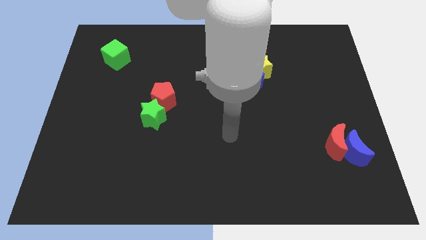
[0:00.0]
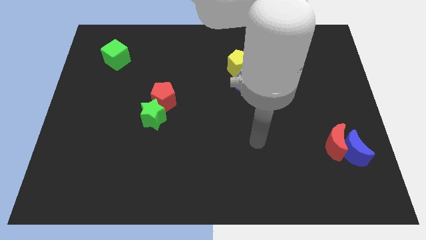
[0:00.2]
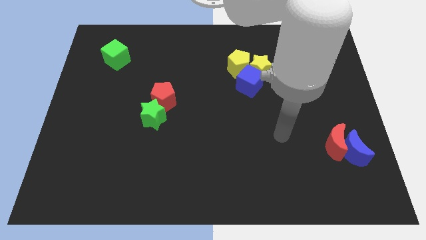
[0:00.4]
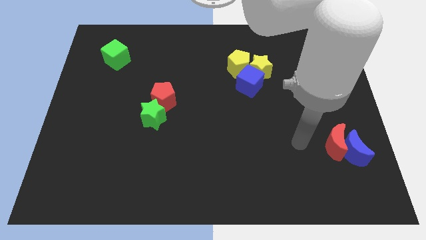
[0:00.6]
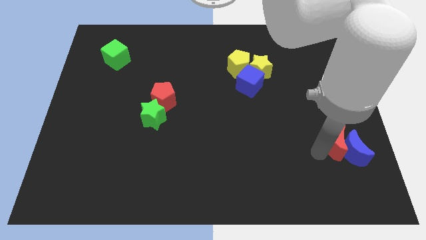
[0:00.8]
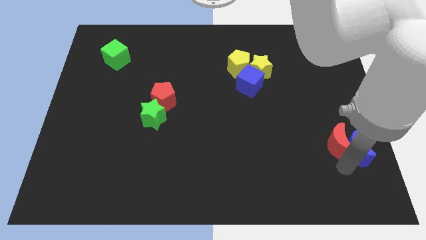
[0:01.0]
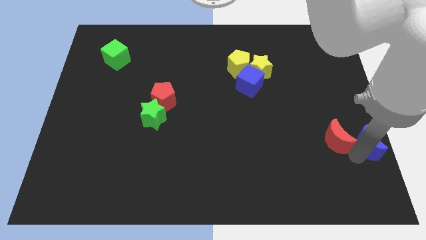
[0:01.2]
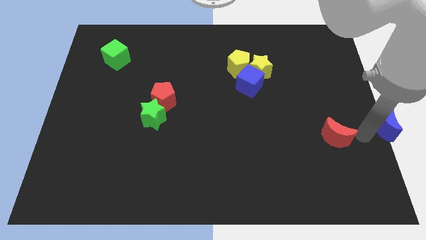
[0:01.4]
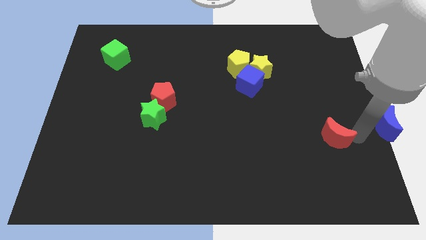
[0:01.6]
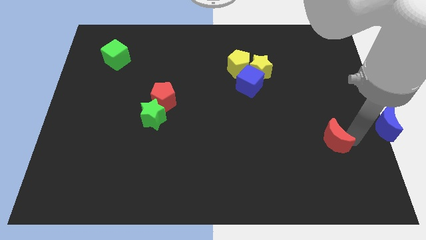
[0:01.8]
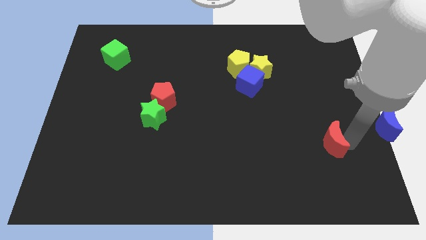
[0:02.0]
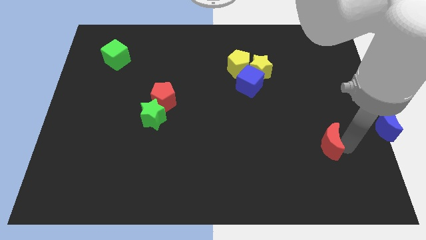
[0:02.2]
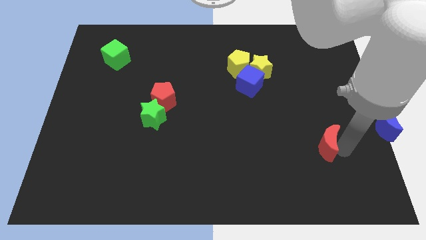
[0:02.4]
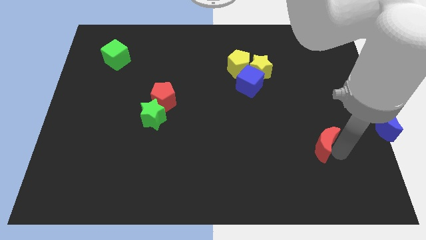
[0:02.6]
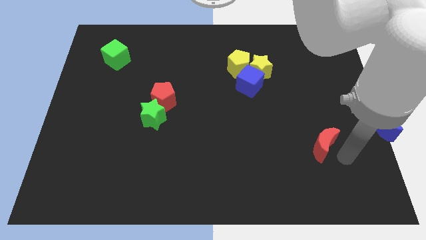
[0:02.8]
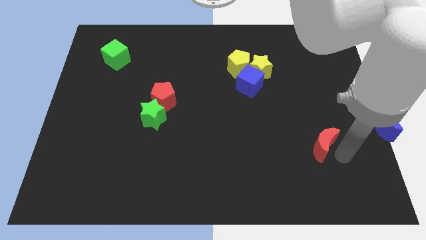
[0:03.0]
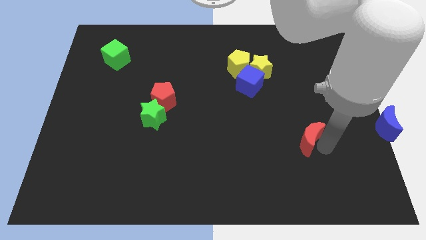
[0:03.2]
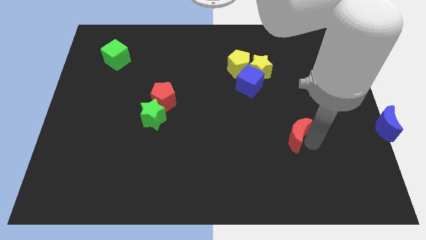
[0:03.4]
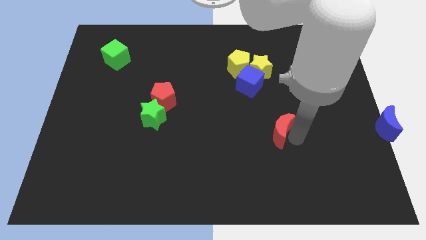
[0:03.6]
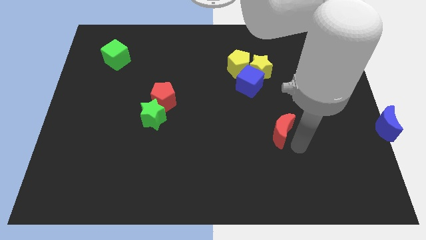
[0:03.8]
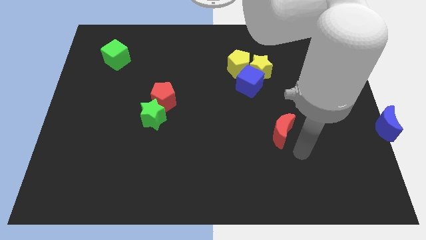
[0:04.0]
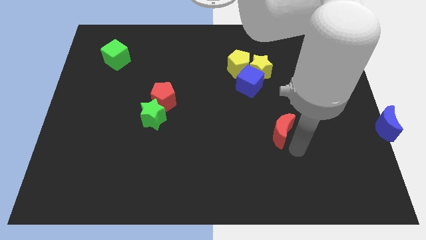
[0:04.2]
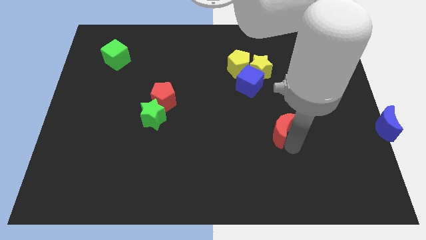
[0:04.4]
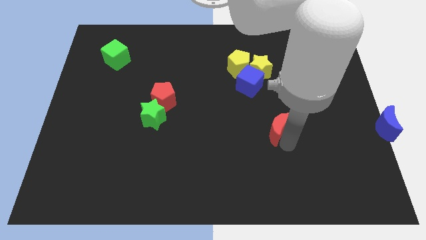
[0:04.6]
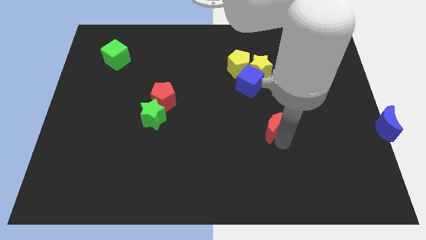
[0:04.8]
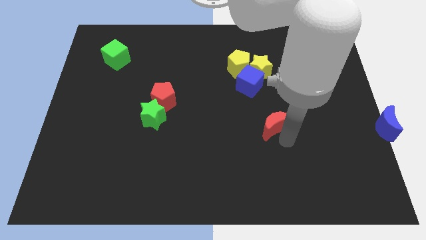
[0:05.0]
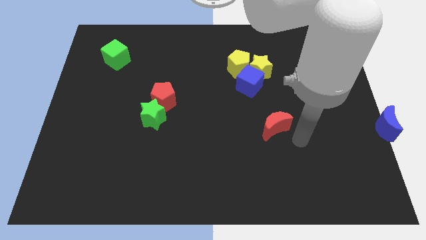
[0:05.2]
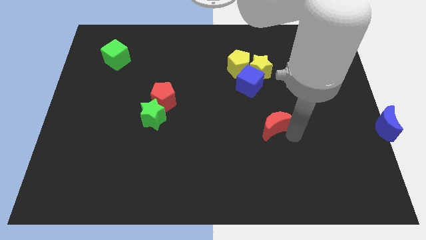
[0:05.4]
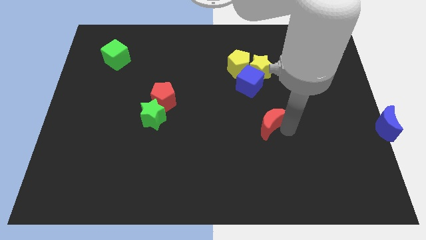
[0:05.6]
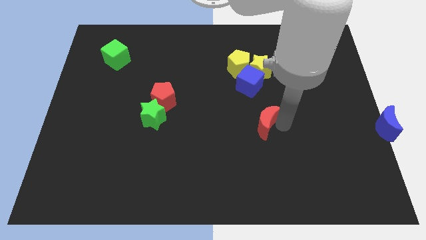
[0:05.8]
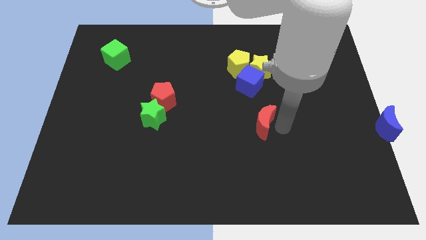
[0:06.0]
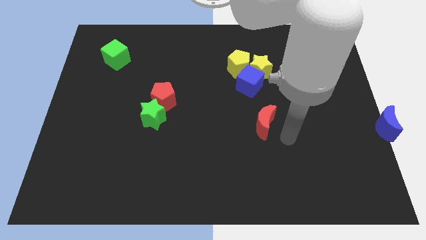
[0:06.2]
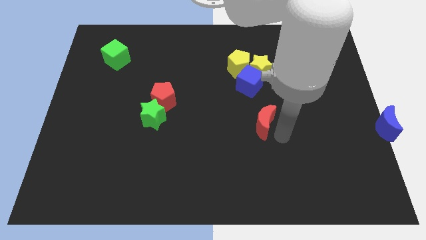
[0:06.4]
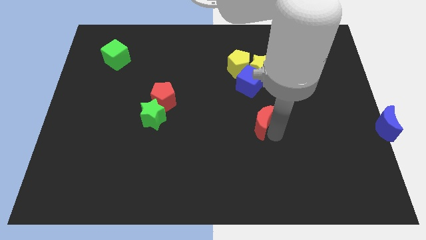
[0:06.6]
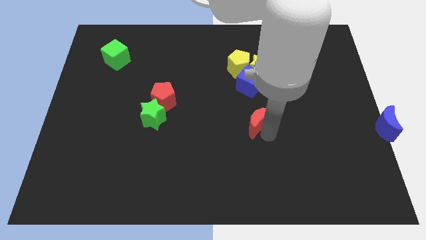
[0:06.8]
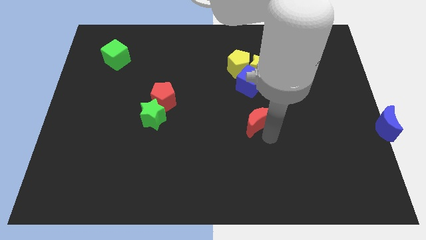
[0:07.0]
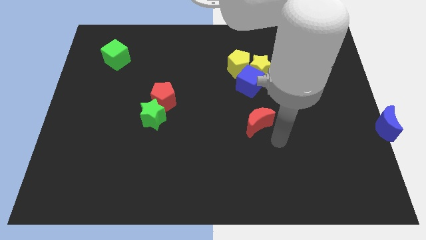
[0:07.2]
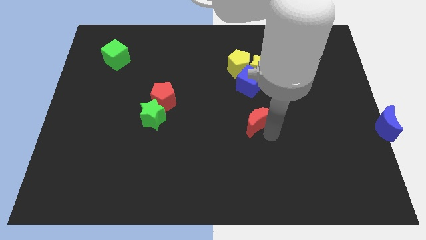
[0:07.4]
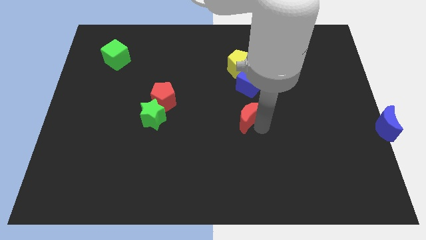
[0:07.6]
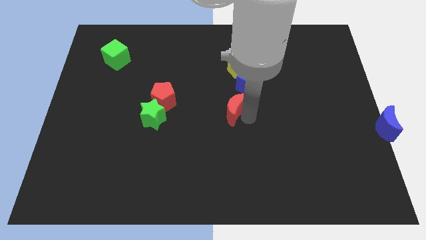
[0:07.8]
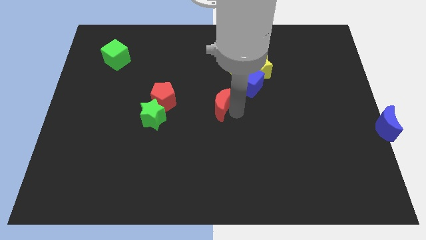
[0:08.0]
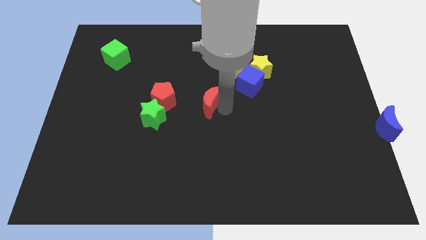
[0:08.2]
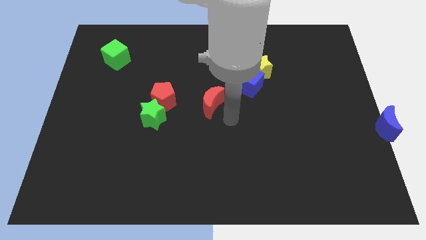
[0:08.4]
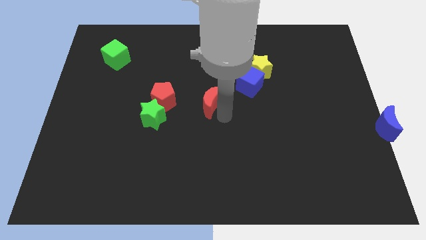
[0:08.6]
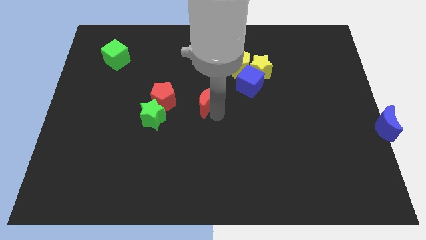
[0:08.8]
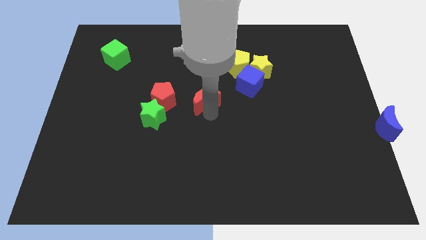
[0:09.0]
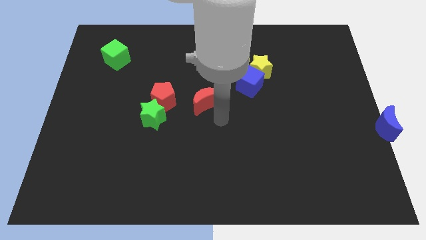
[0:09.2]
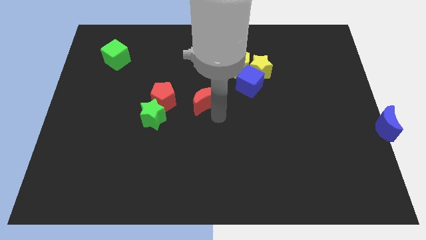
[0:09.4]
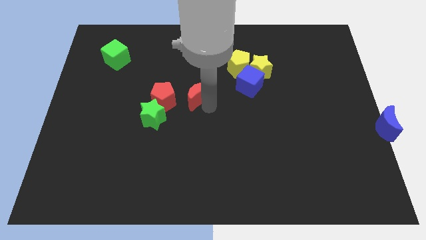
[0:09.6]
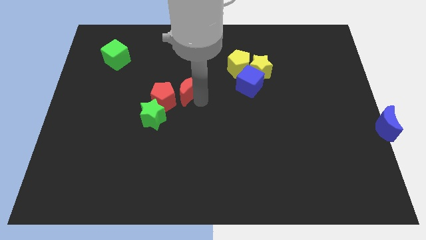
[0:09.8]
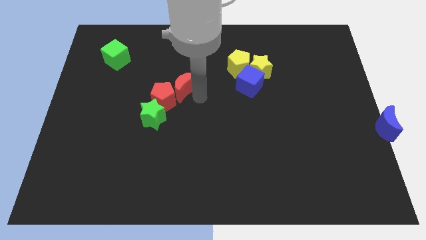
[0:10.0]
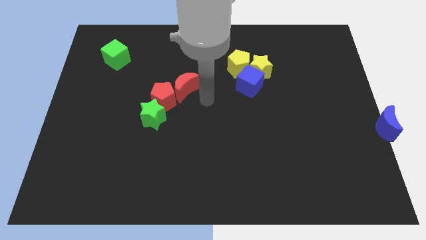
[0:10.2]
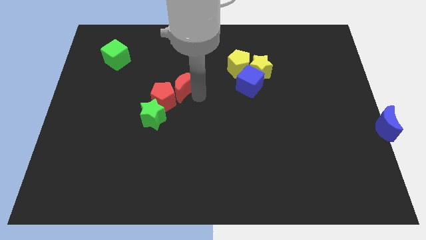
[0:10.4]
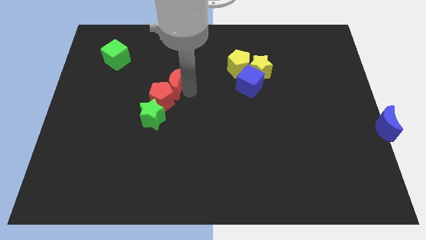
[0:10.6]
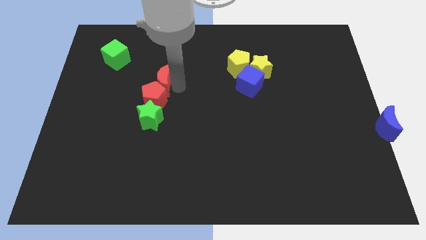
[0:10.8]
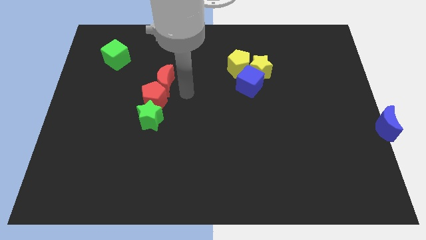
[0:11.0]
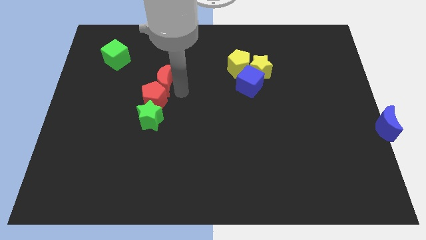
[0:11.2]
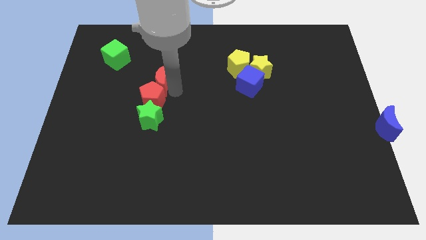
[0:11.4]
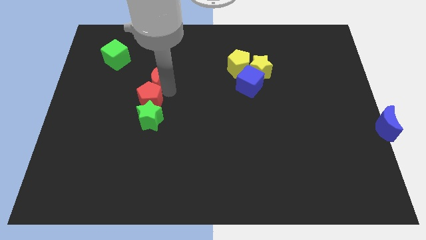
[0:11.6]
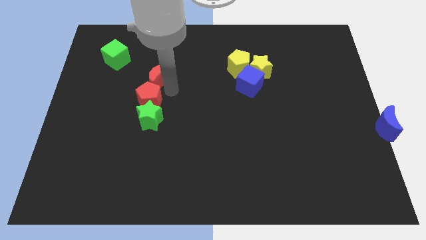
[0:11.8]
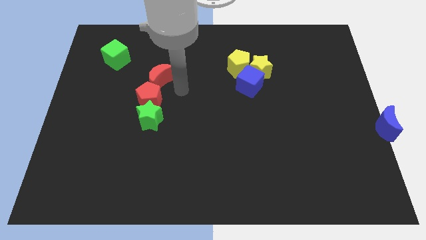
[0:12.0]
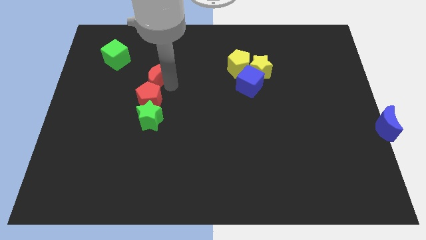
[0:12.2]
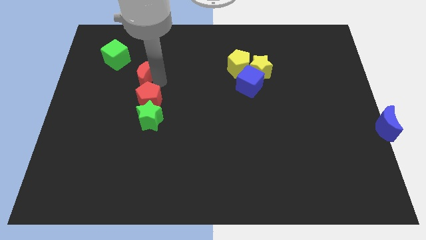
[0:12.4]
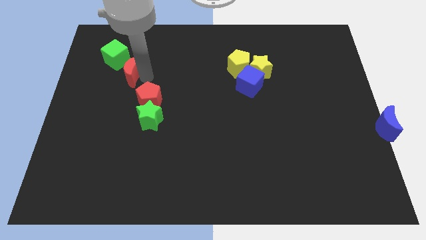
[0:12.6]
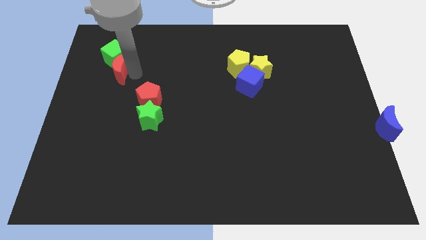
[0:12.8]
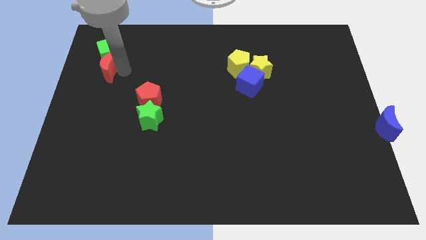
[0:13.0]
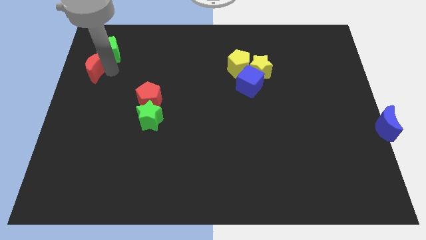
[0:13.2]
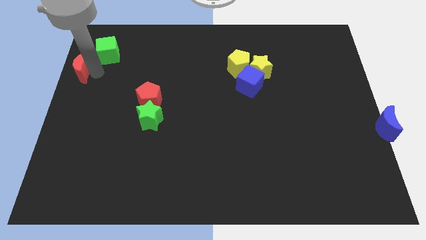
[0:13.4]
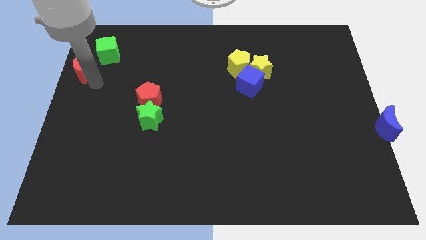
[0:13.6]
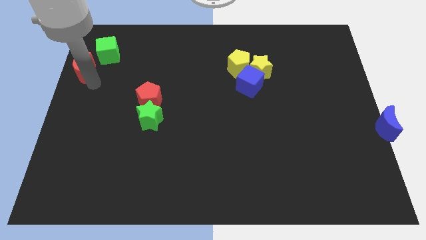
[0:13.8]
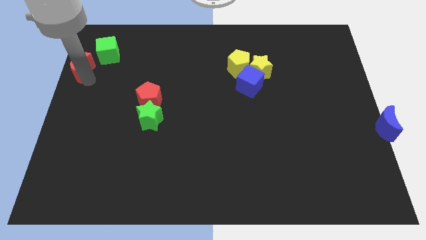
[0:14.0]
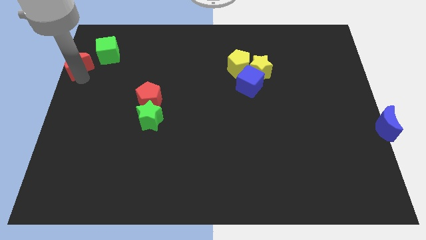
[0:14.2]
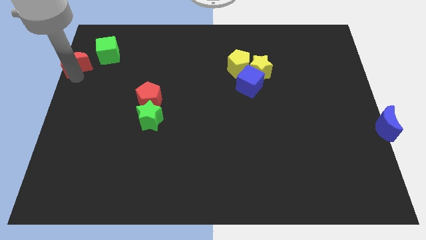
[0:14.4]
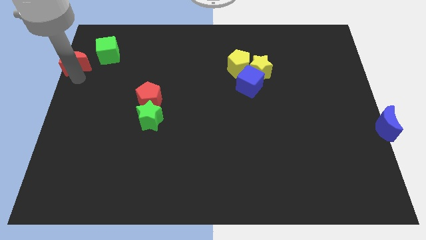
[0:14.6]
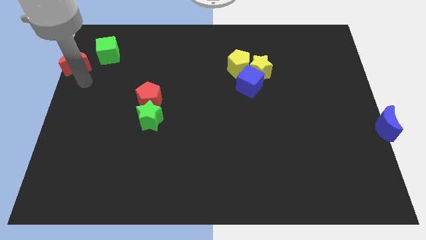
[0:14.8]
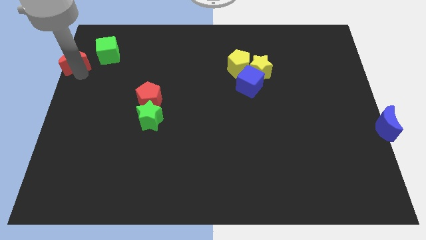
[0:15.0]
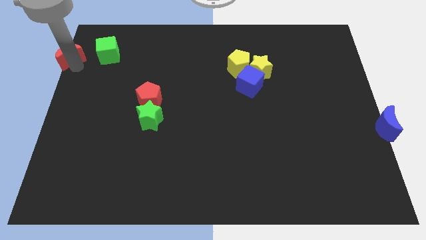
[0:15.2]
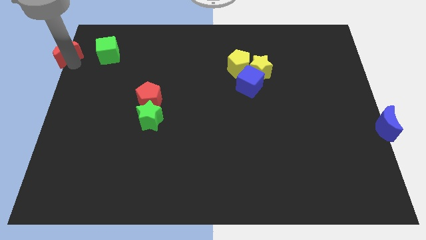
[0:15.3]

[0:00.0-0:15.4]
put the red moon to the top left
